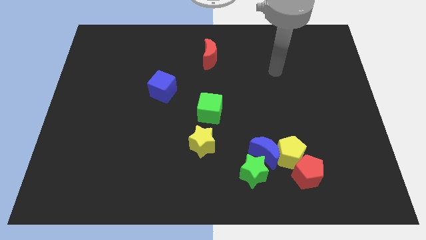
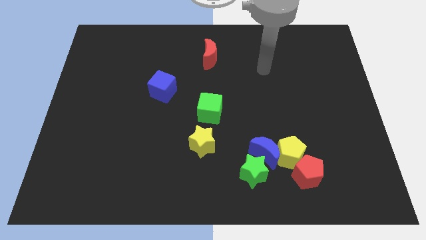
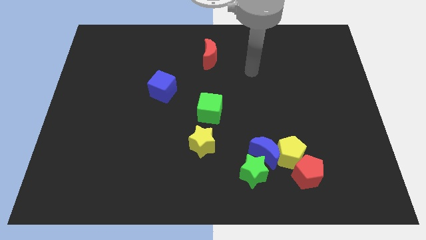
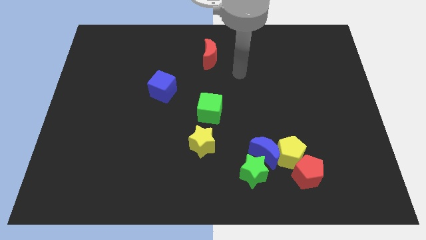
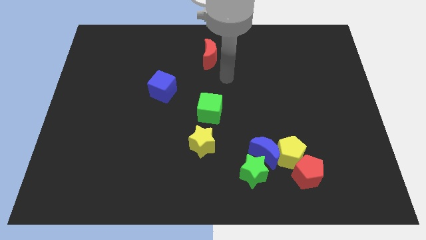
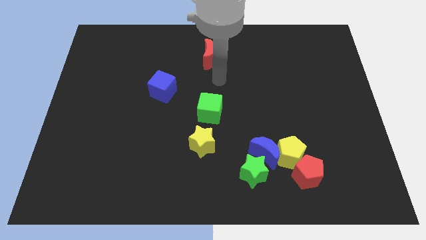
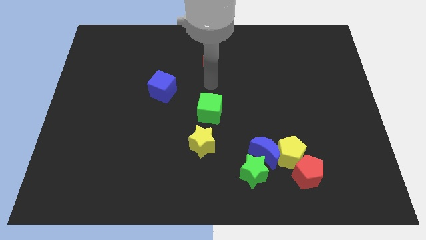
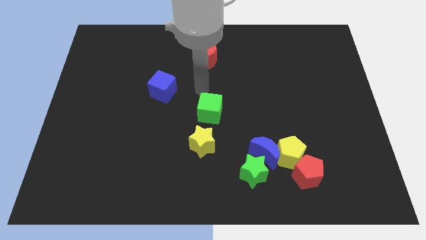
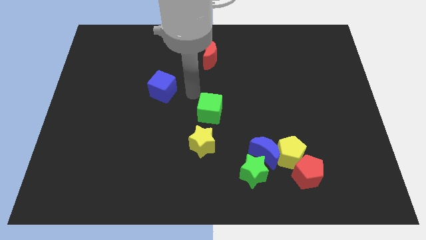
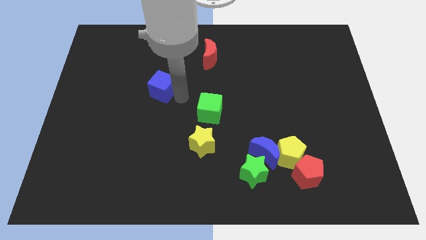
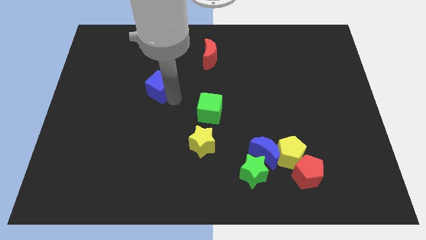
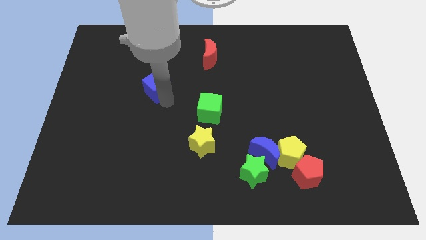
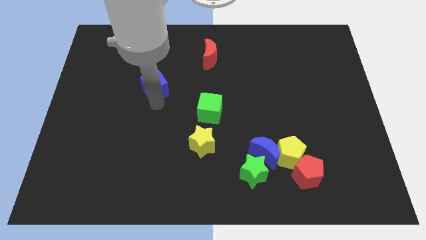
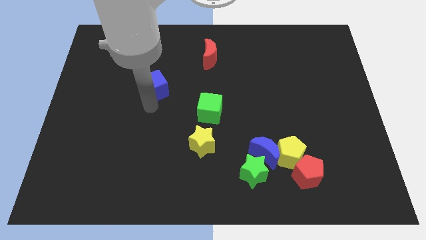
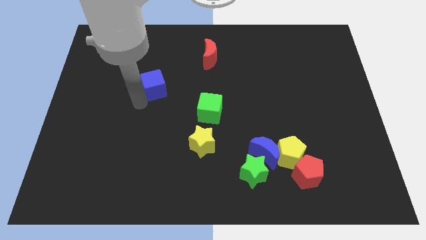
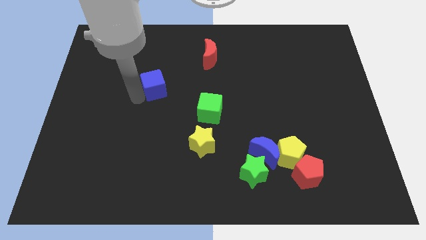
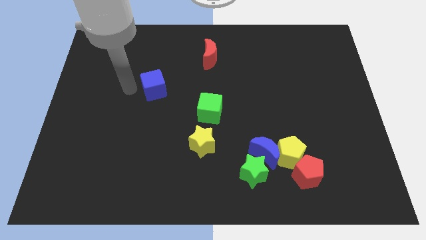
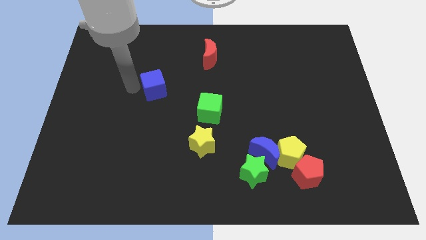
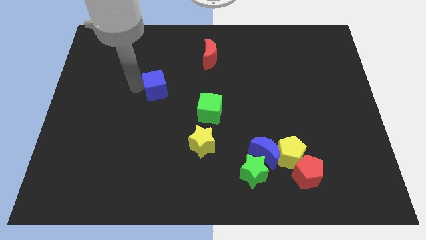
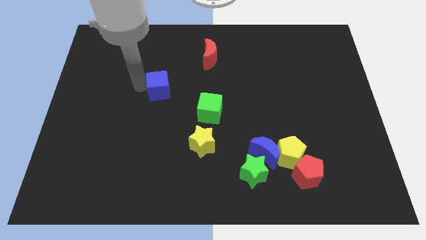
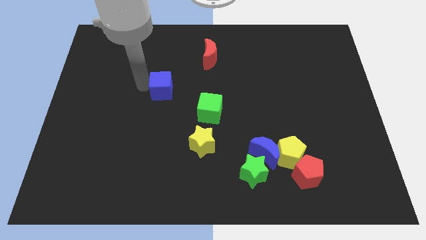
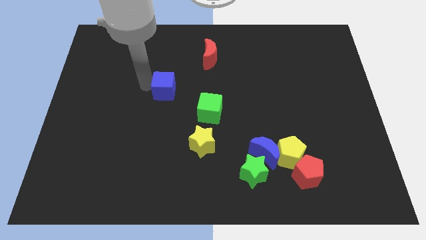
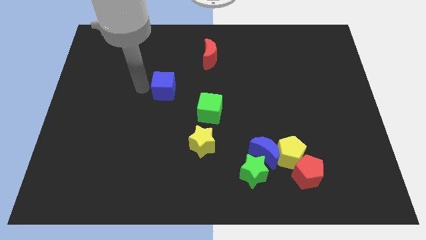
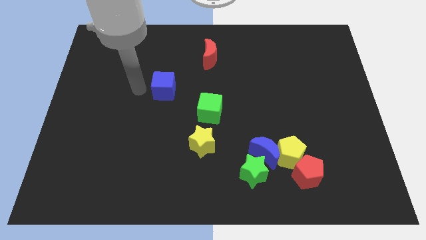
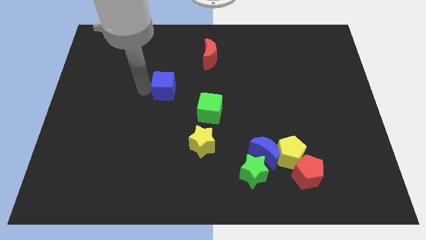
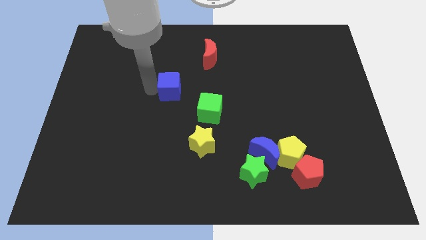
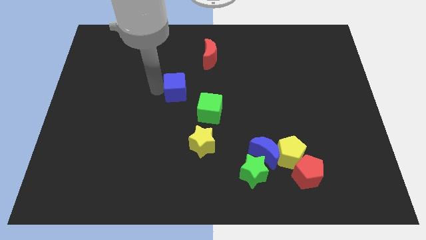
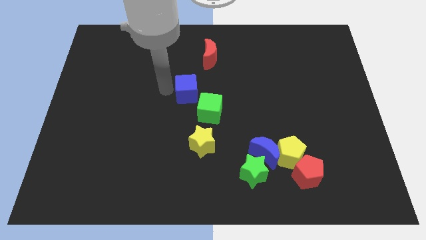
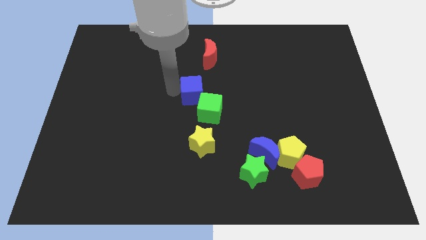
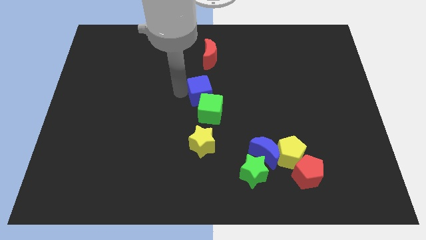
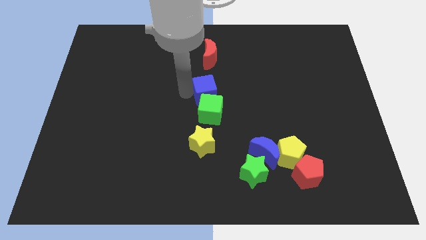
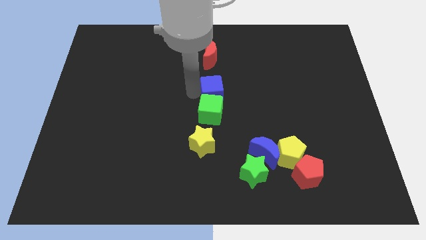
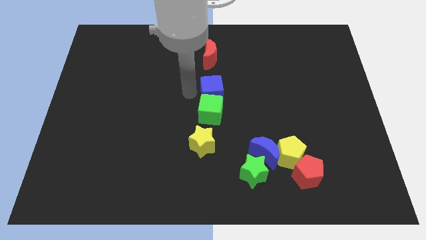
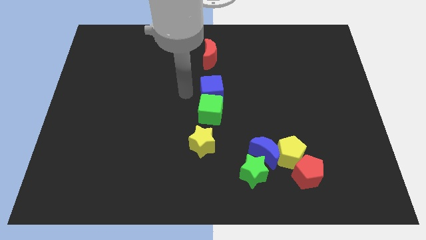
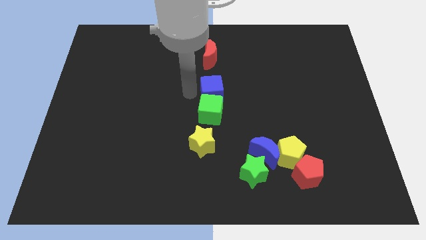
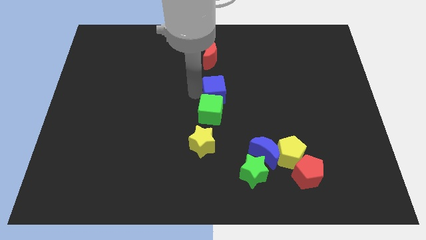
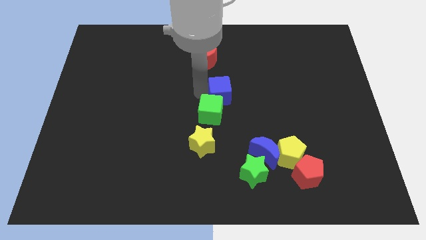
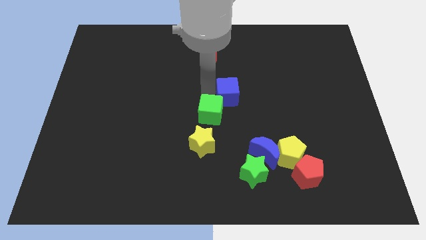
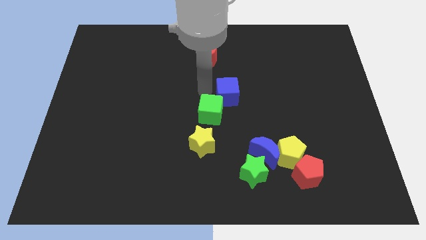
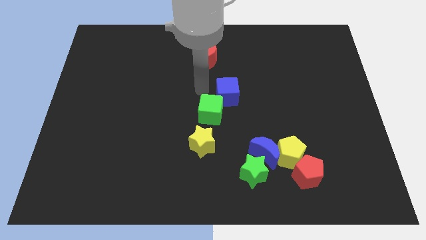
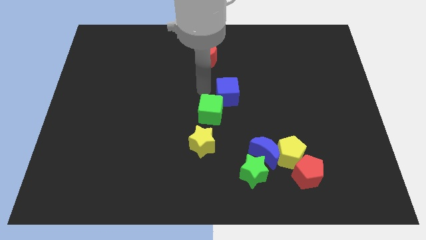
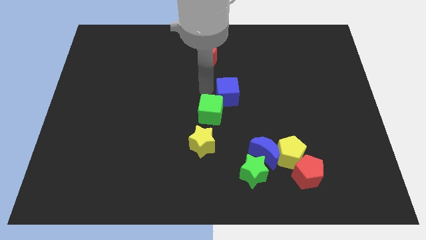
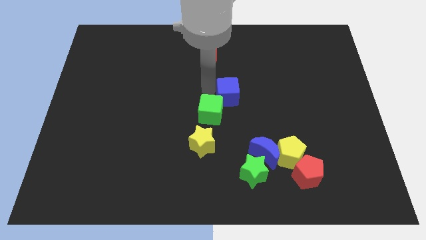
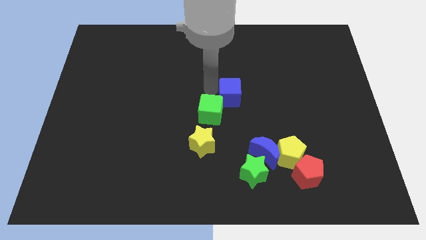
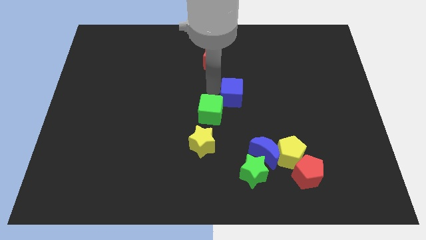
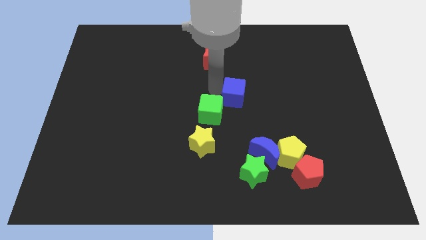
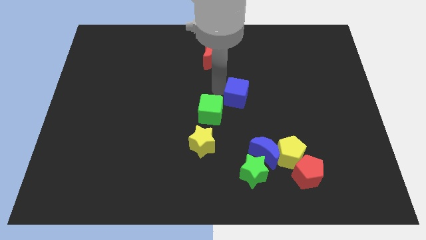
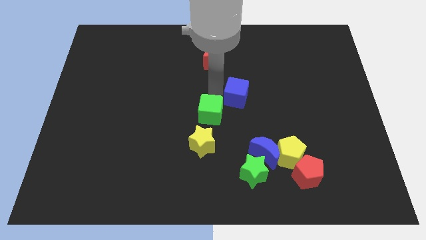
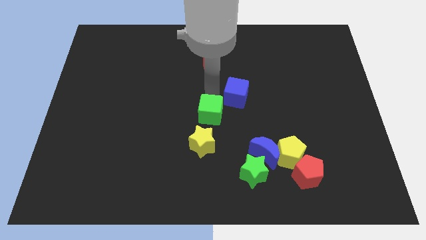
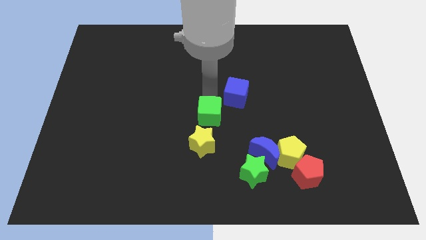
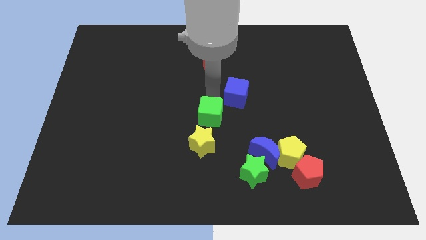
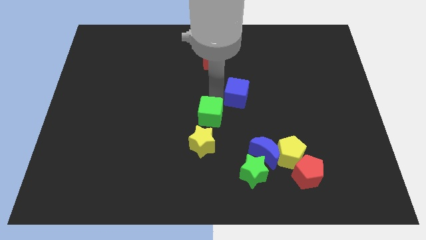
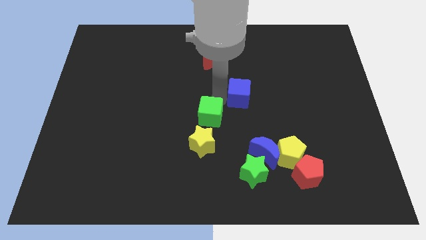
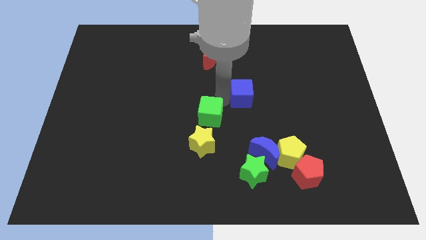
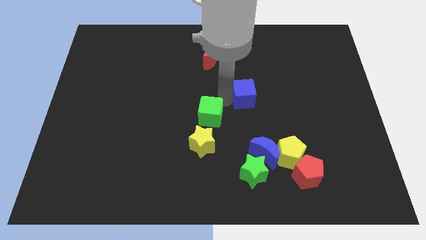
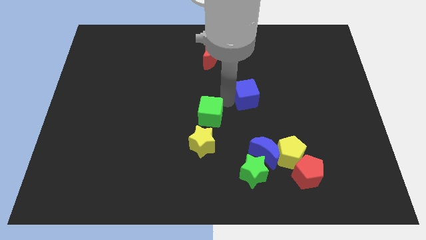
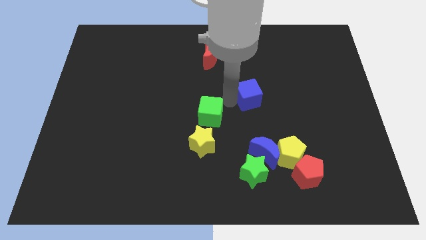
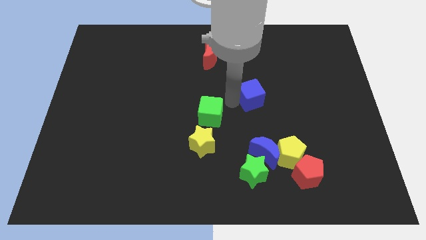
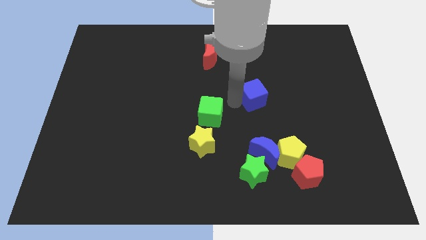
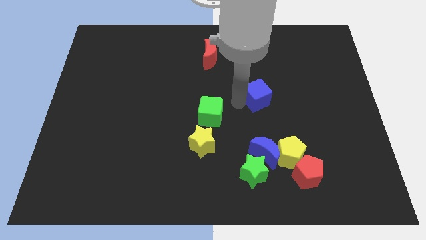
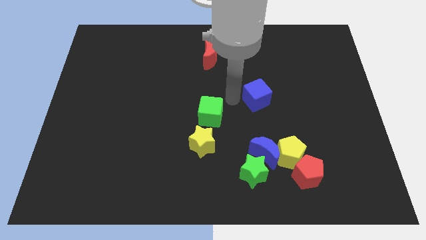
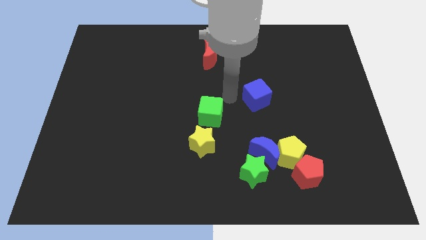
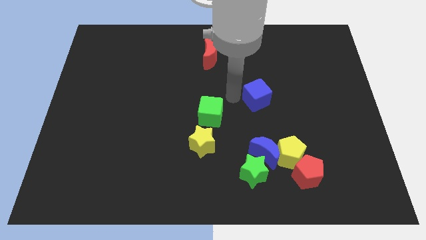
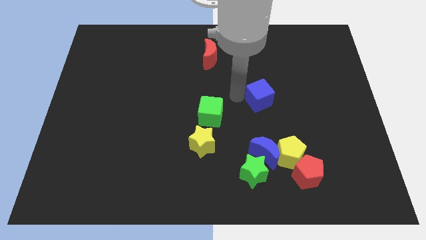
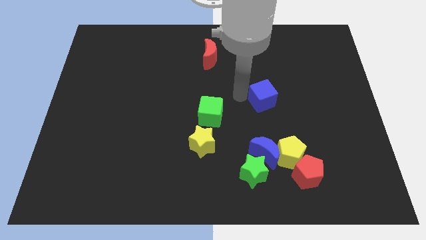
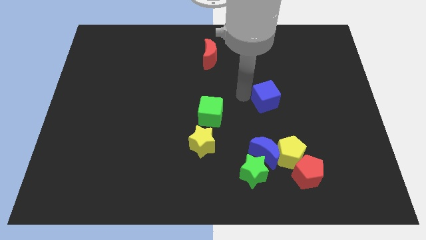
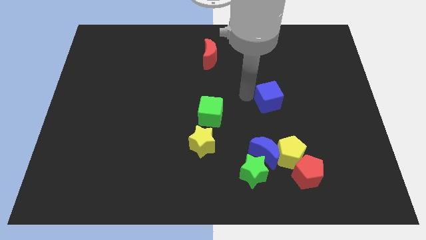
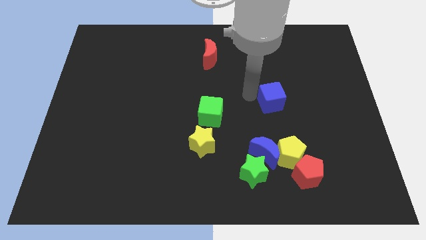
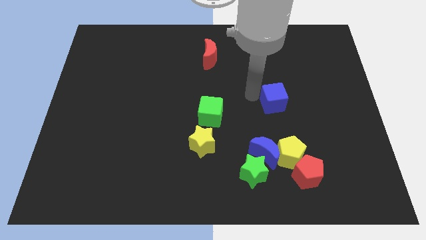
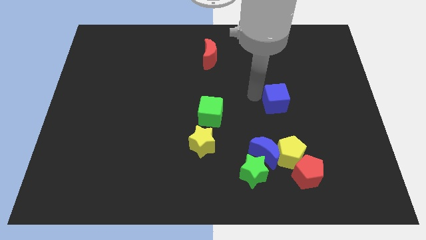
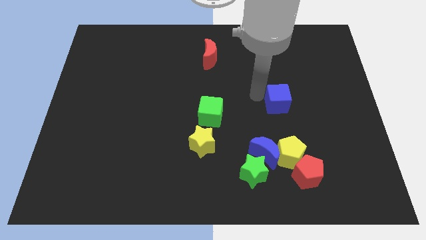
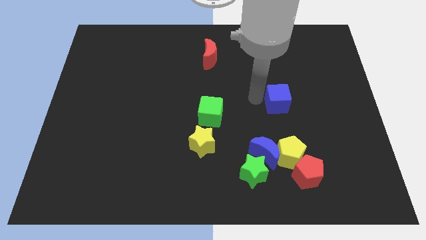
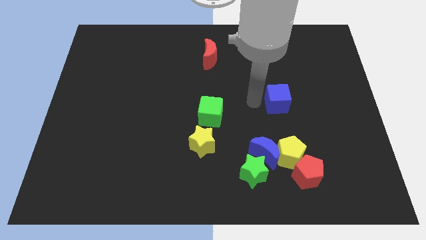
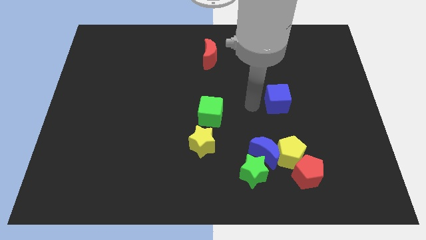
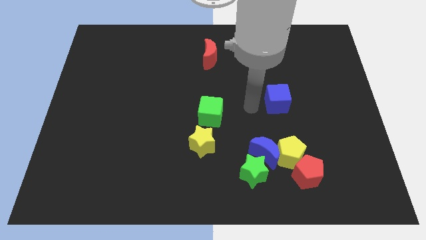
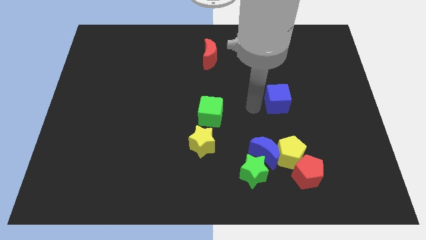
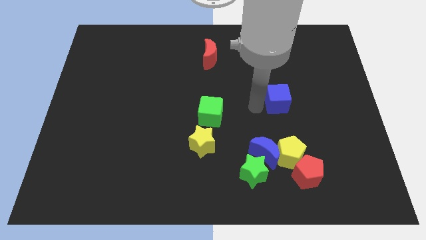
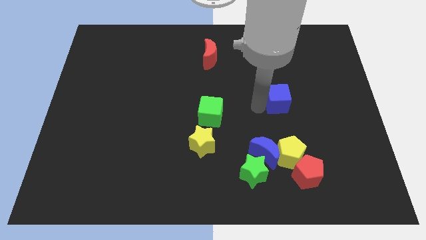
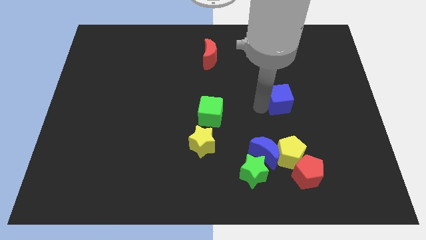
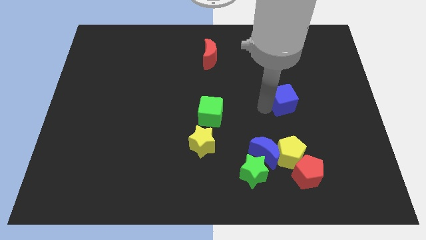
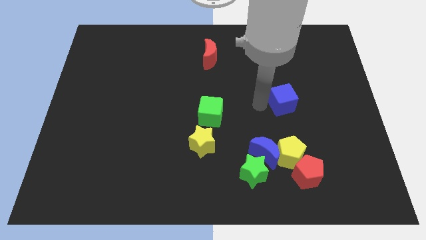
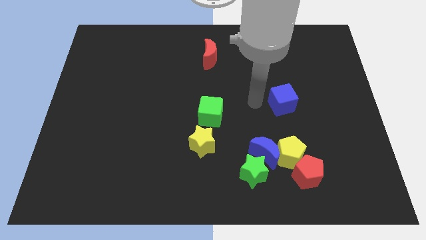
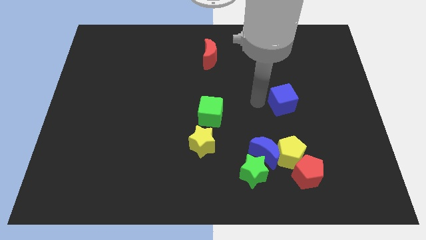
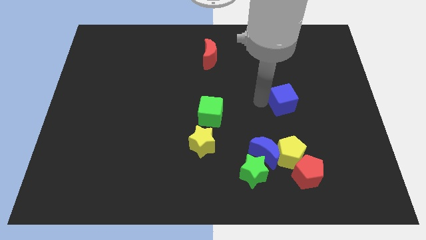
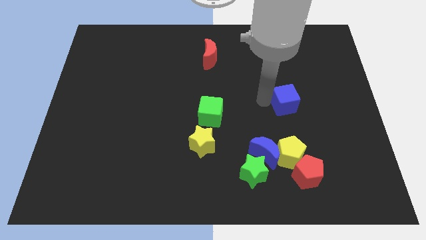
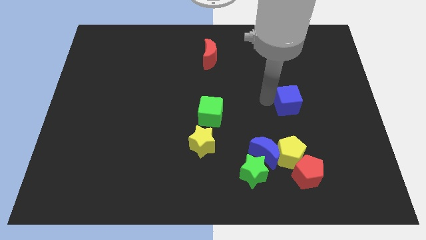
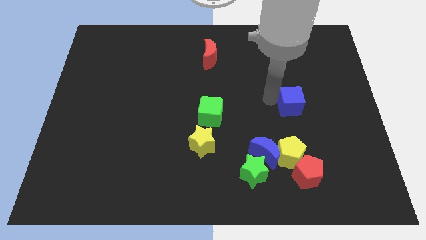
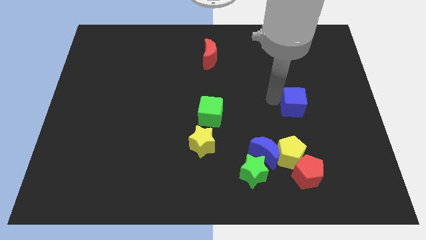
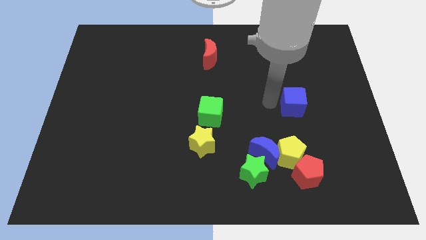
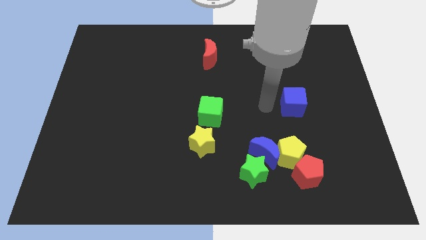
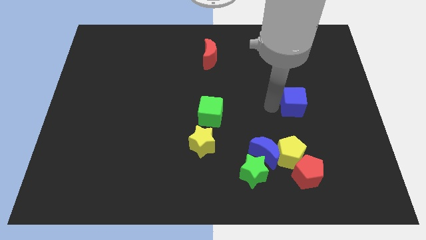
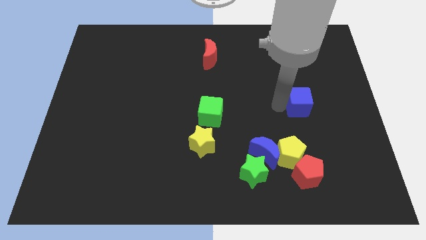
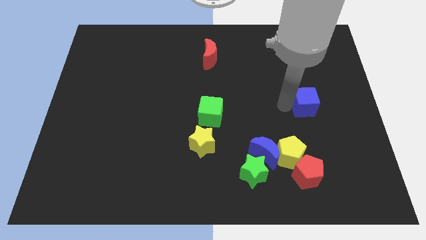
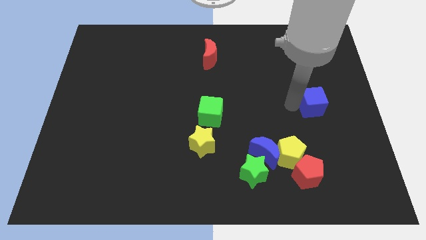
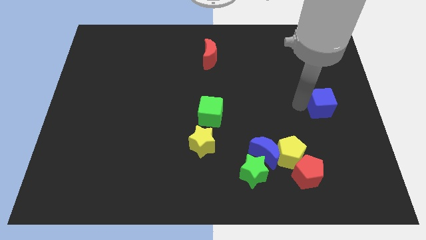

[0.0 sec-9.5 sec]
slide the blue cube to the right side of the board
